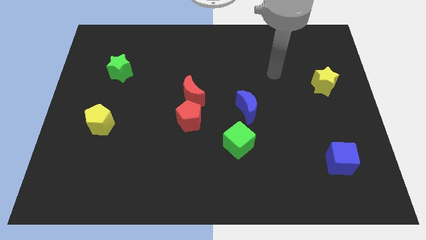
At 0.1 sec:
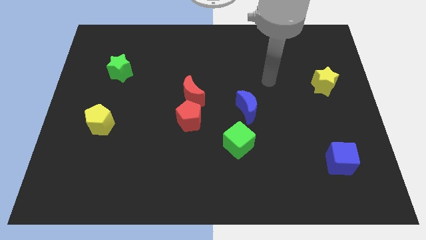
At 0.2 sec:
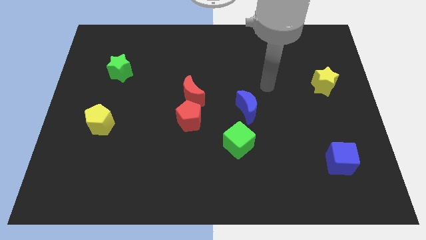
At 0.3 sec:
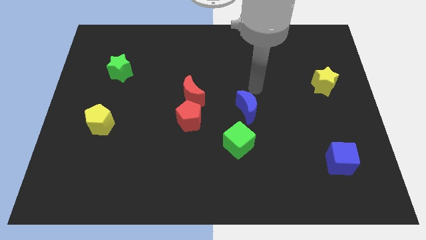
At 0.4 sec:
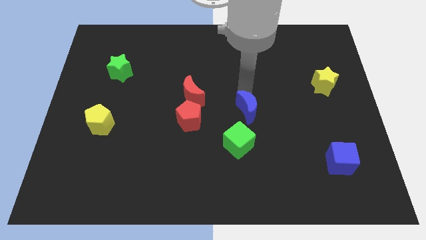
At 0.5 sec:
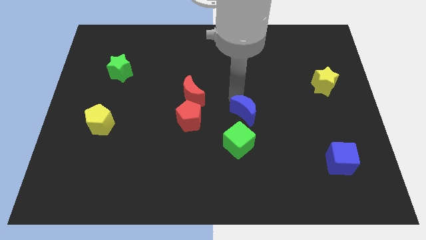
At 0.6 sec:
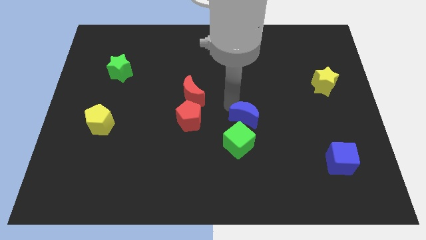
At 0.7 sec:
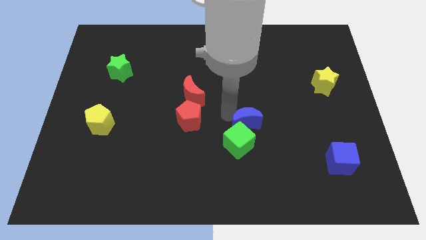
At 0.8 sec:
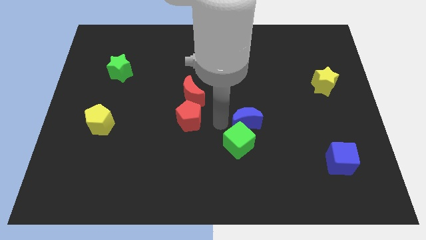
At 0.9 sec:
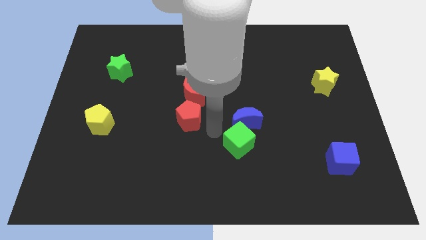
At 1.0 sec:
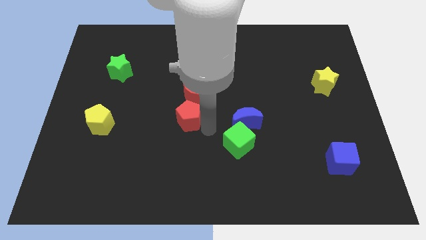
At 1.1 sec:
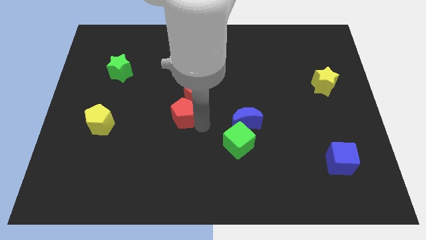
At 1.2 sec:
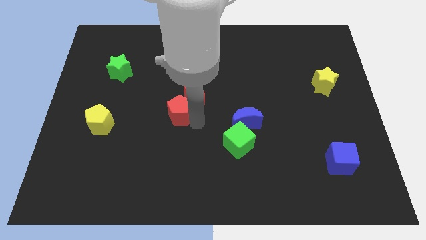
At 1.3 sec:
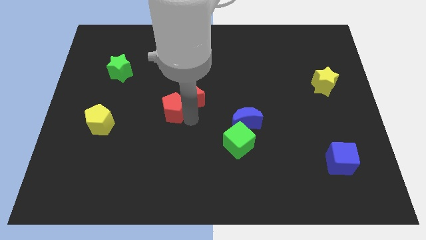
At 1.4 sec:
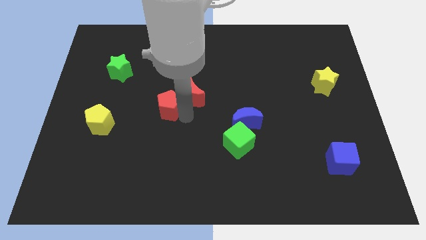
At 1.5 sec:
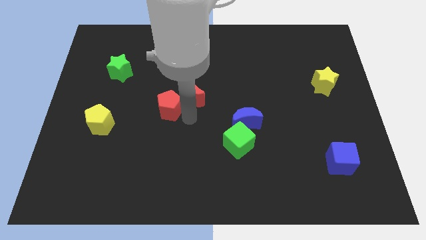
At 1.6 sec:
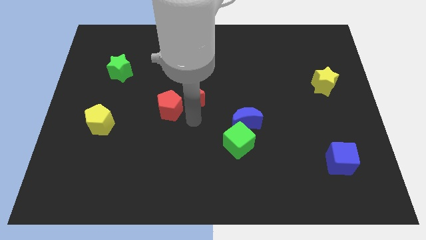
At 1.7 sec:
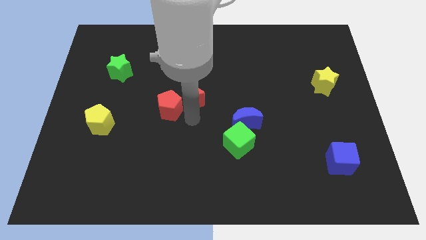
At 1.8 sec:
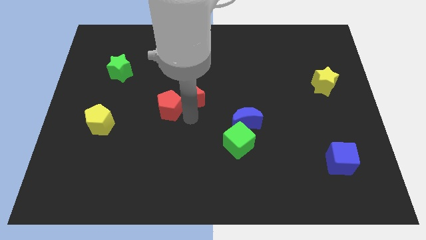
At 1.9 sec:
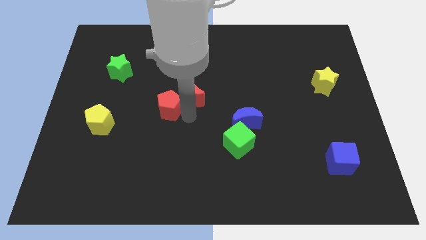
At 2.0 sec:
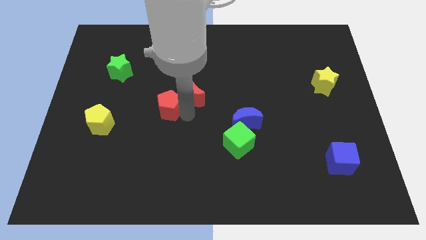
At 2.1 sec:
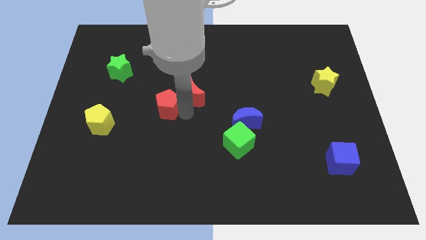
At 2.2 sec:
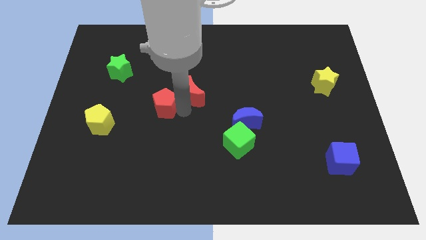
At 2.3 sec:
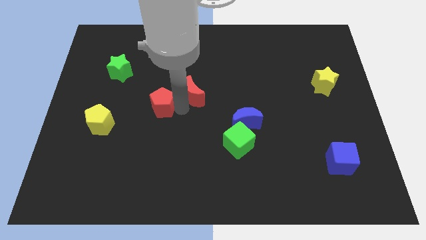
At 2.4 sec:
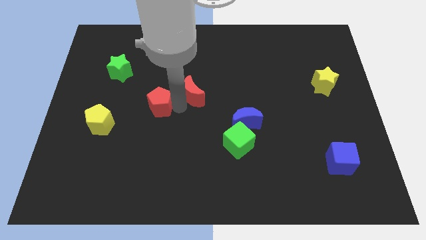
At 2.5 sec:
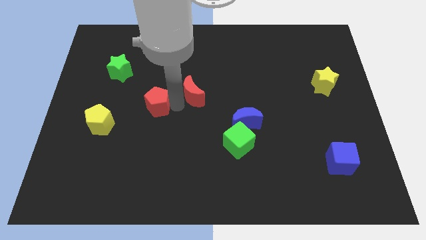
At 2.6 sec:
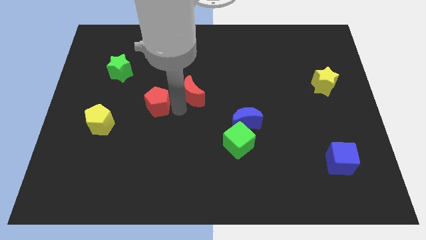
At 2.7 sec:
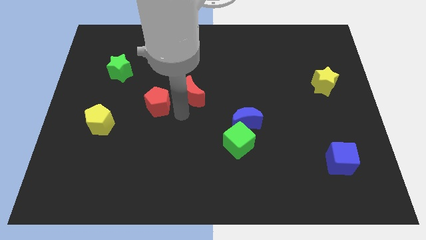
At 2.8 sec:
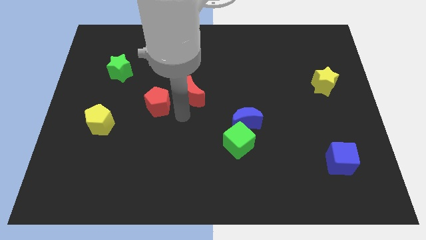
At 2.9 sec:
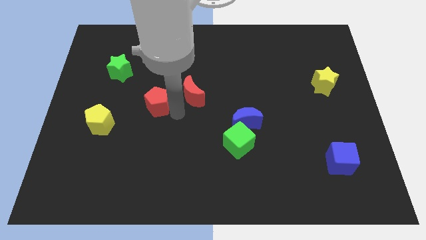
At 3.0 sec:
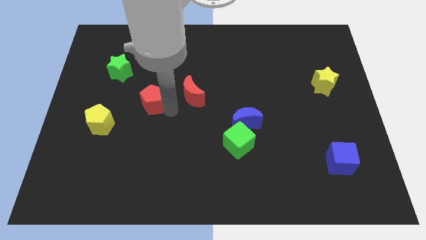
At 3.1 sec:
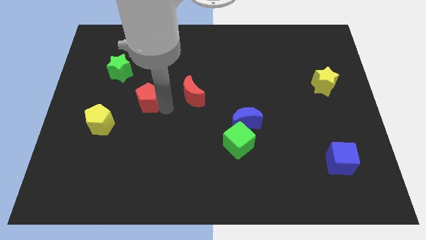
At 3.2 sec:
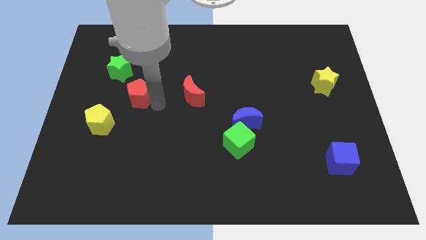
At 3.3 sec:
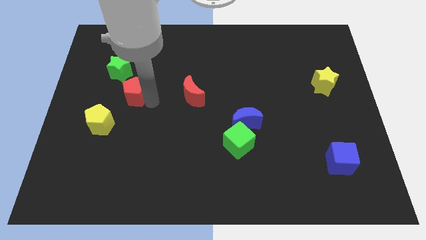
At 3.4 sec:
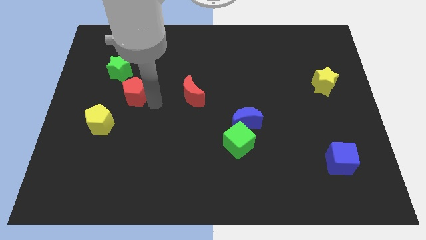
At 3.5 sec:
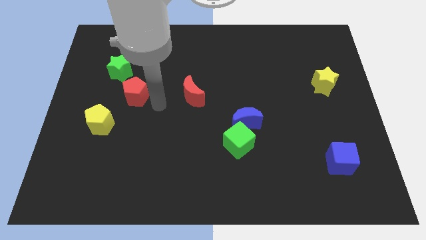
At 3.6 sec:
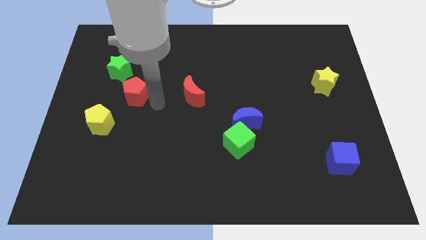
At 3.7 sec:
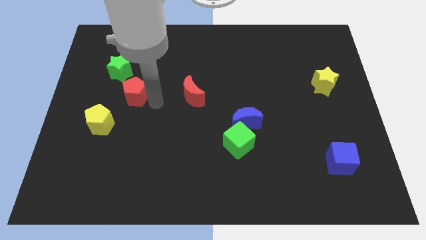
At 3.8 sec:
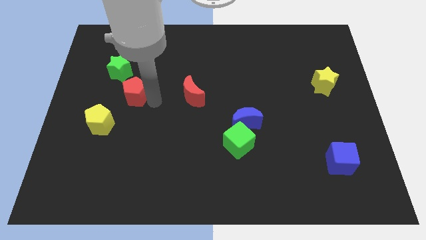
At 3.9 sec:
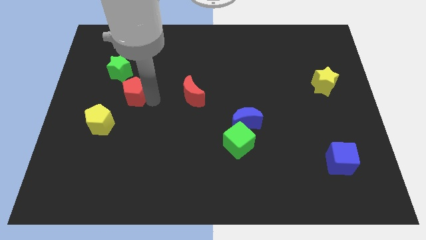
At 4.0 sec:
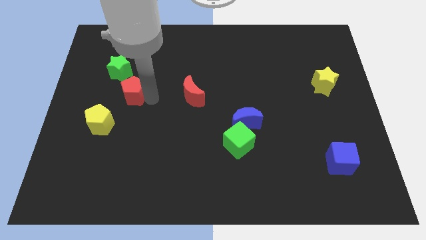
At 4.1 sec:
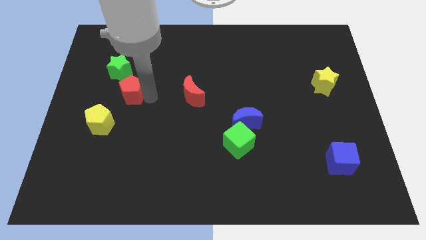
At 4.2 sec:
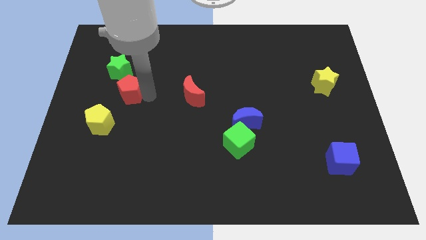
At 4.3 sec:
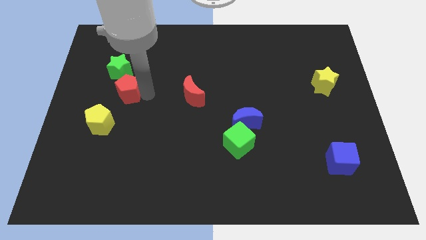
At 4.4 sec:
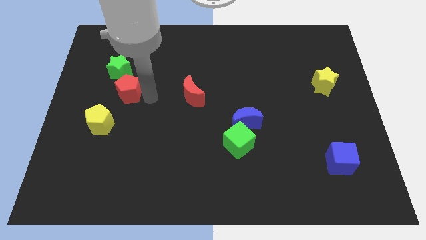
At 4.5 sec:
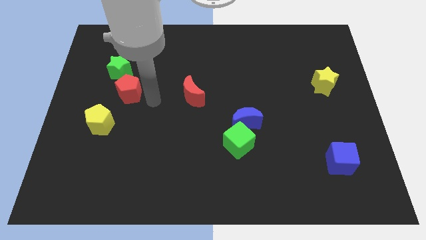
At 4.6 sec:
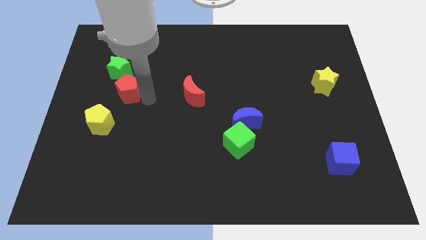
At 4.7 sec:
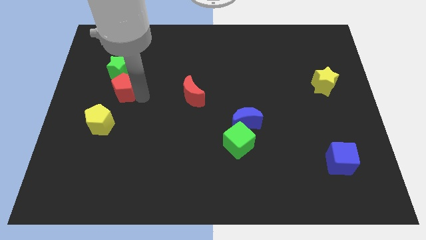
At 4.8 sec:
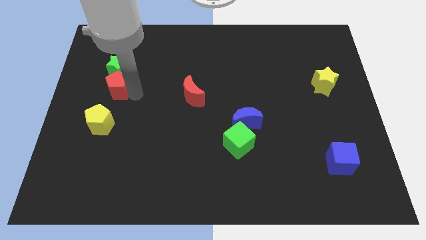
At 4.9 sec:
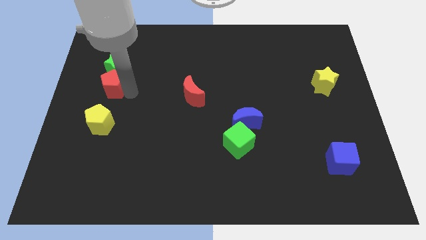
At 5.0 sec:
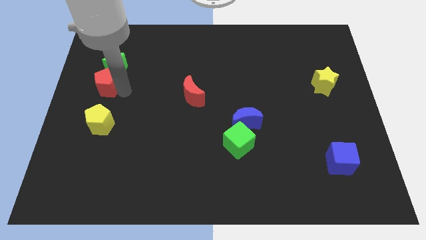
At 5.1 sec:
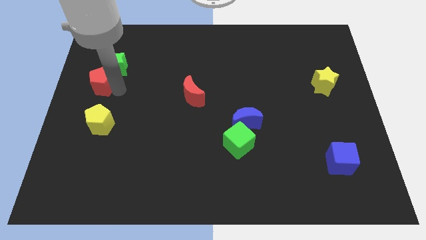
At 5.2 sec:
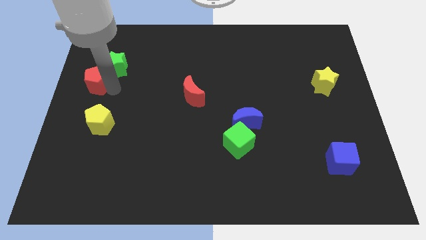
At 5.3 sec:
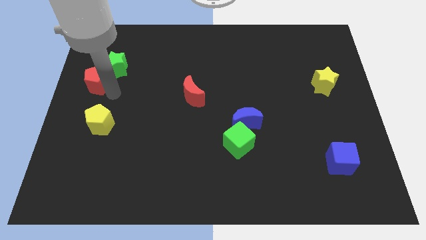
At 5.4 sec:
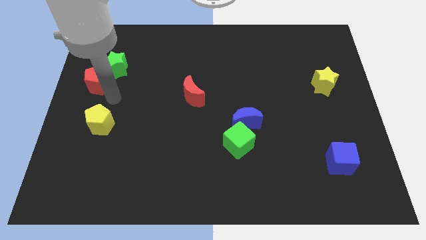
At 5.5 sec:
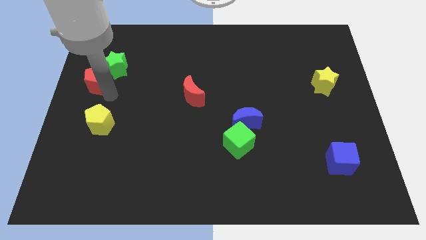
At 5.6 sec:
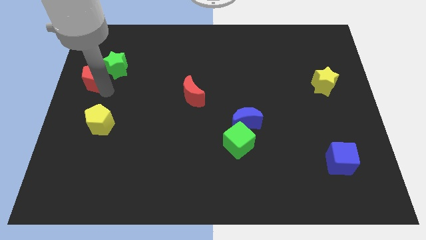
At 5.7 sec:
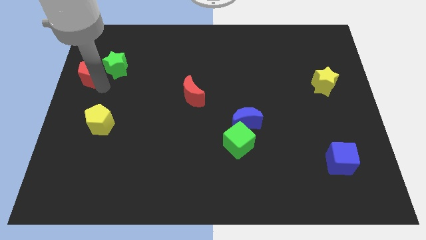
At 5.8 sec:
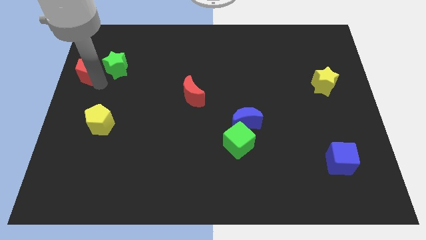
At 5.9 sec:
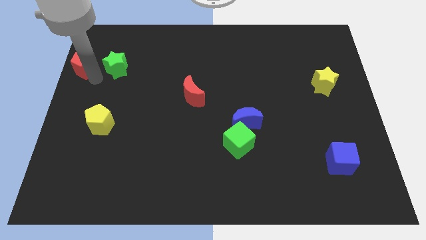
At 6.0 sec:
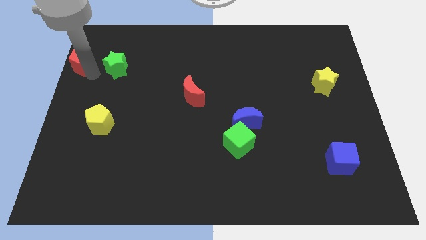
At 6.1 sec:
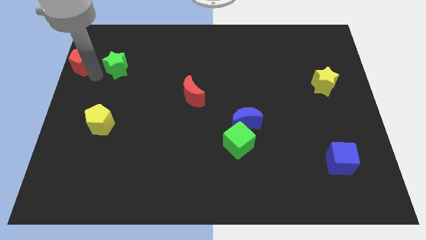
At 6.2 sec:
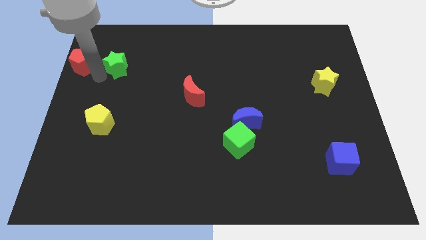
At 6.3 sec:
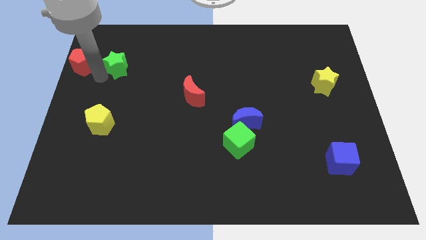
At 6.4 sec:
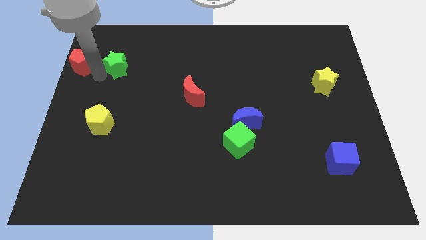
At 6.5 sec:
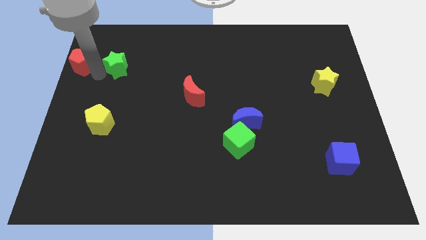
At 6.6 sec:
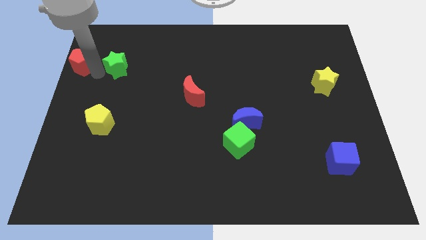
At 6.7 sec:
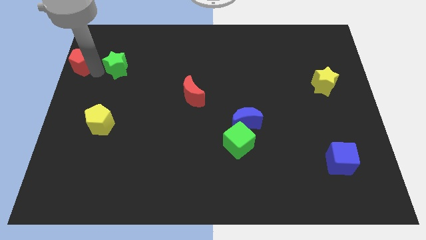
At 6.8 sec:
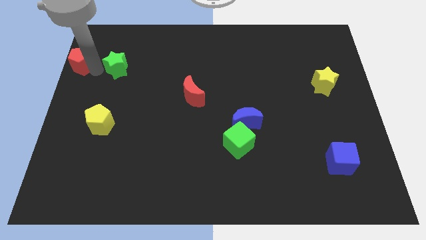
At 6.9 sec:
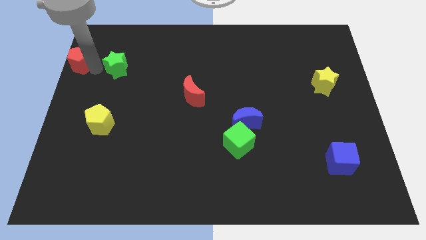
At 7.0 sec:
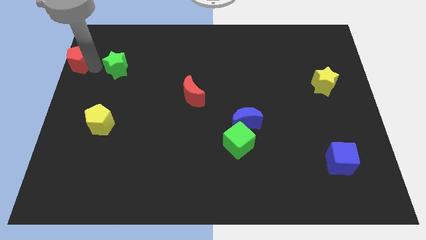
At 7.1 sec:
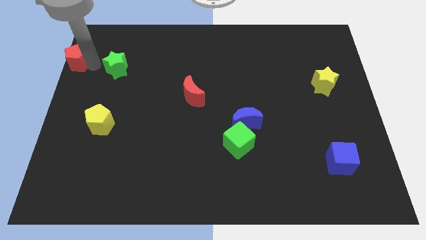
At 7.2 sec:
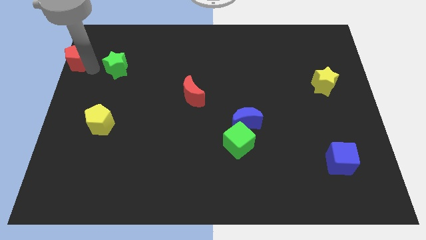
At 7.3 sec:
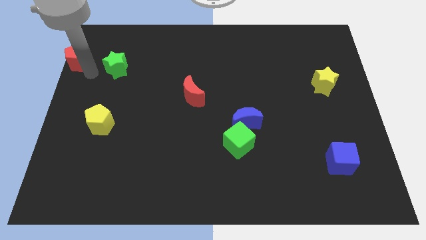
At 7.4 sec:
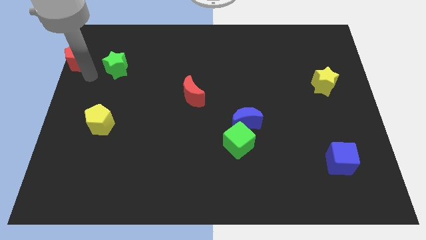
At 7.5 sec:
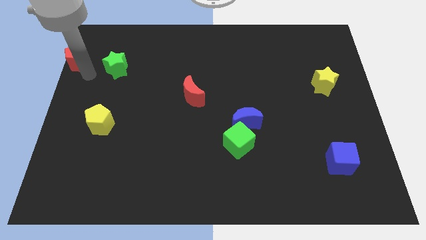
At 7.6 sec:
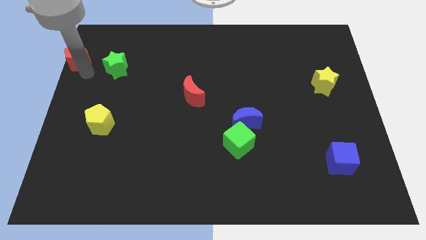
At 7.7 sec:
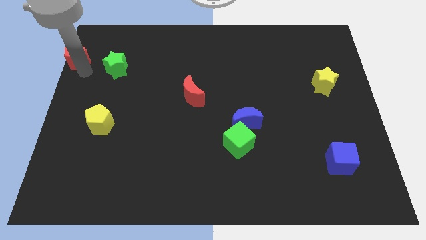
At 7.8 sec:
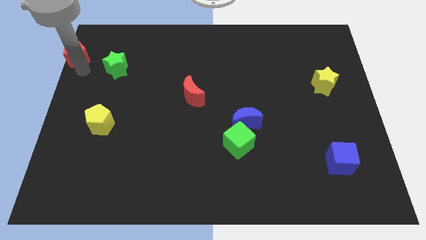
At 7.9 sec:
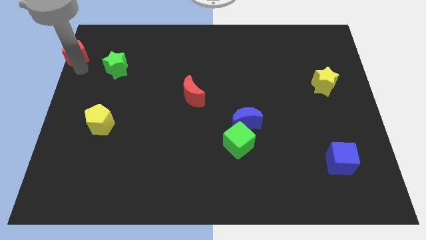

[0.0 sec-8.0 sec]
slide the red pentagon to the upper left corner
